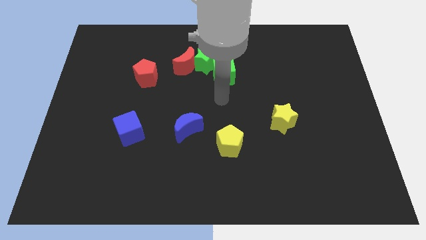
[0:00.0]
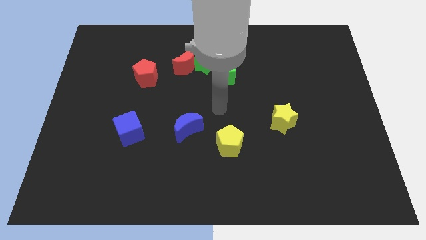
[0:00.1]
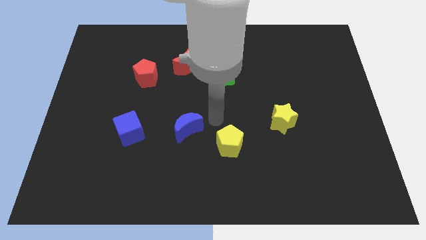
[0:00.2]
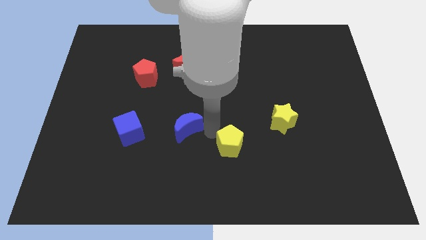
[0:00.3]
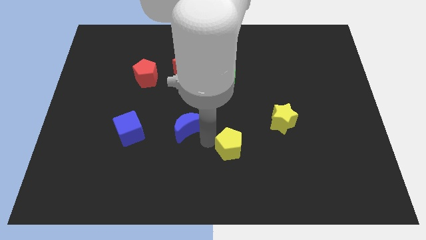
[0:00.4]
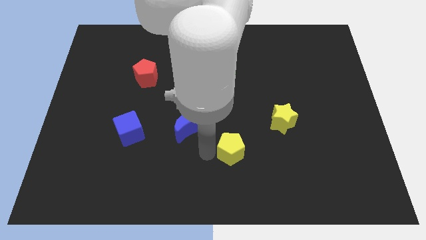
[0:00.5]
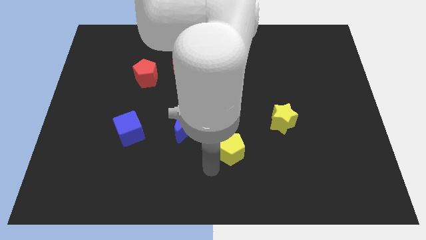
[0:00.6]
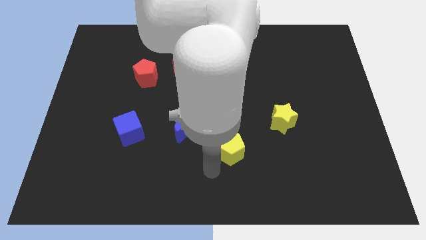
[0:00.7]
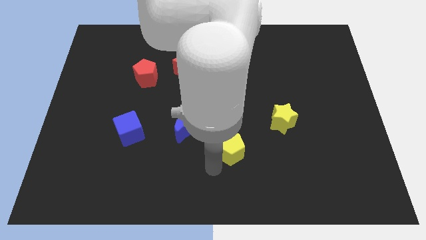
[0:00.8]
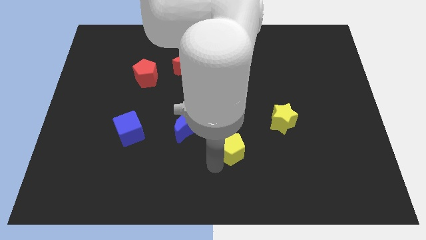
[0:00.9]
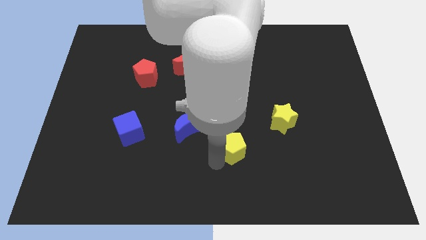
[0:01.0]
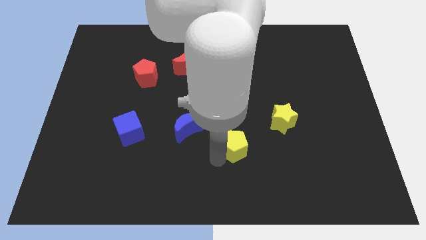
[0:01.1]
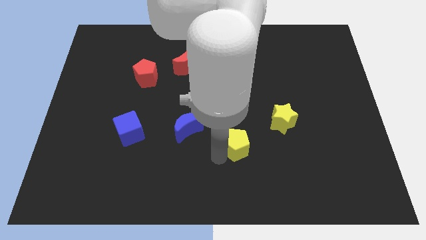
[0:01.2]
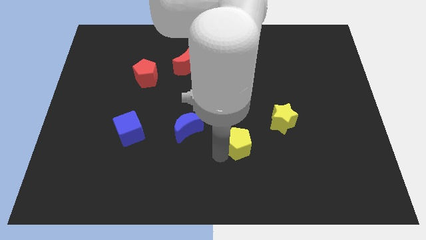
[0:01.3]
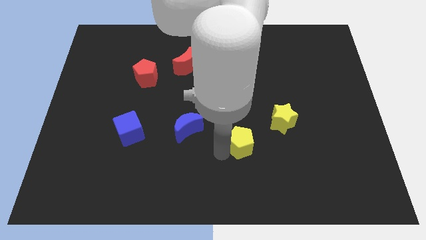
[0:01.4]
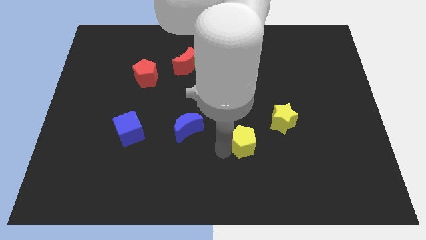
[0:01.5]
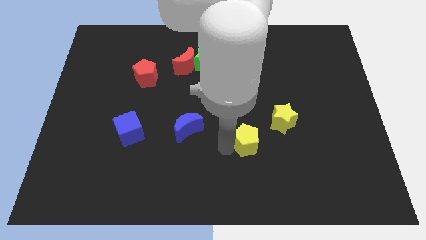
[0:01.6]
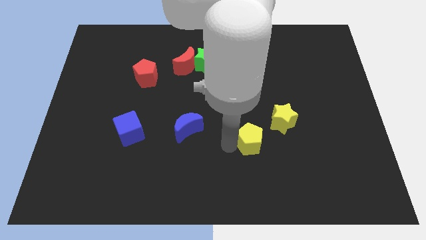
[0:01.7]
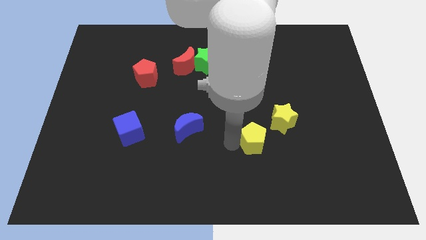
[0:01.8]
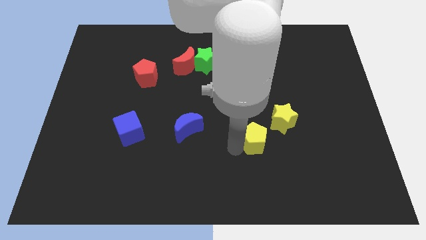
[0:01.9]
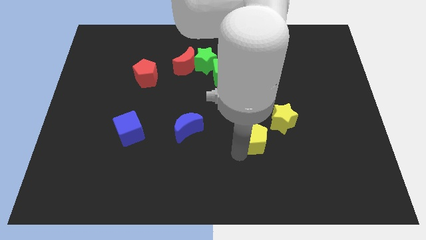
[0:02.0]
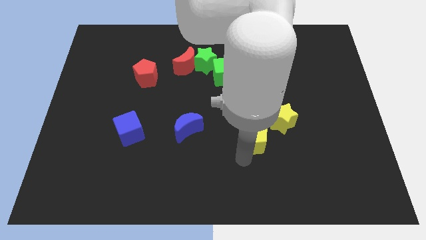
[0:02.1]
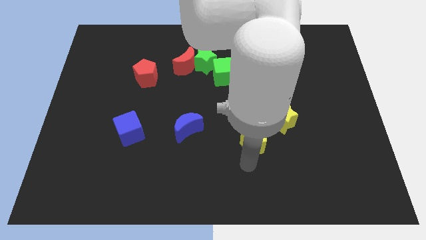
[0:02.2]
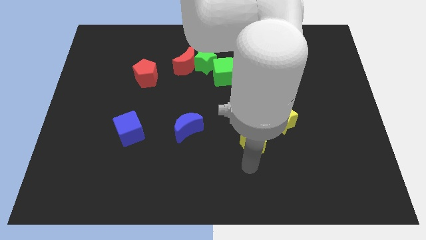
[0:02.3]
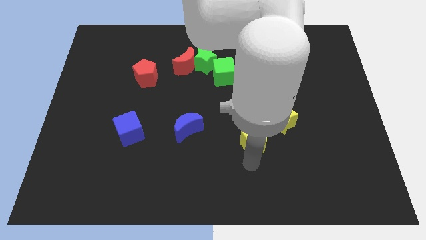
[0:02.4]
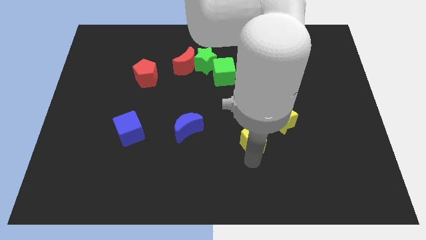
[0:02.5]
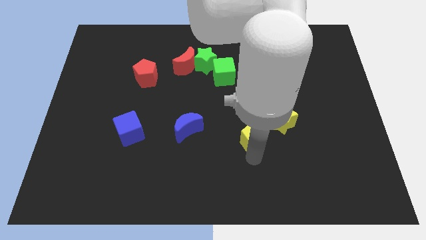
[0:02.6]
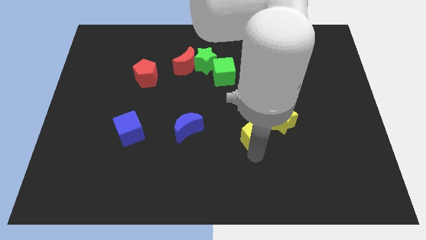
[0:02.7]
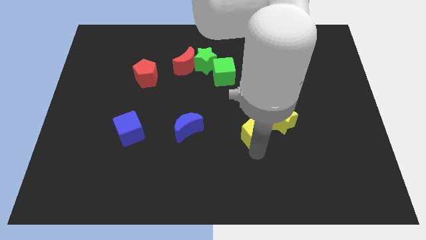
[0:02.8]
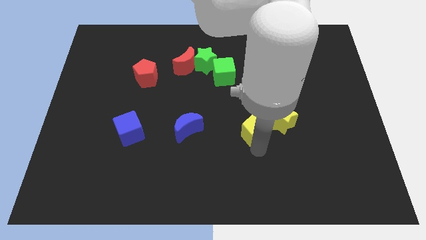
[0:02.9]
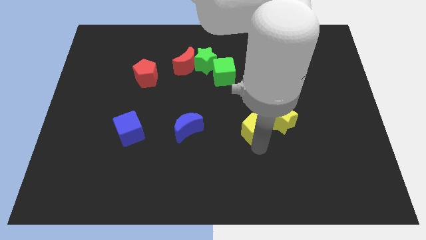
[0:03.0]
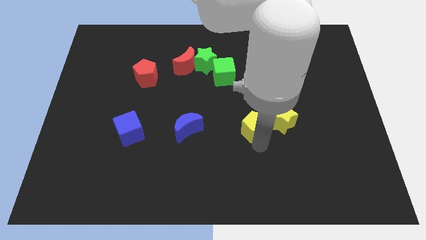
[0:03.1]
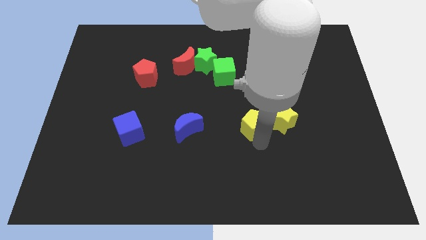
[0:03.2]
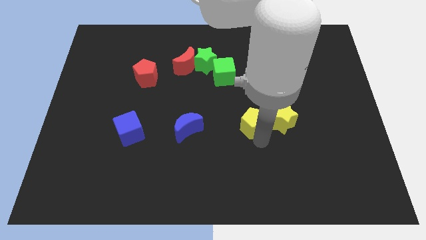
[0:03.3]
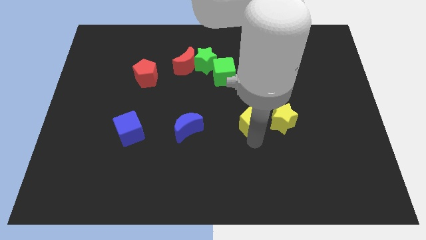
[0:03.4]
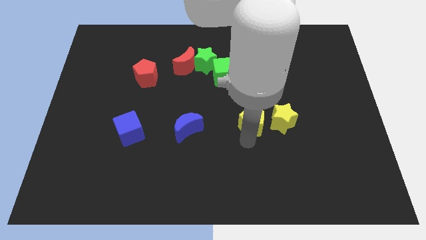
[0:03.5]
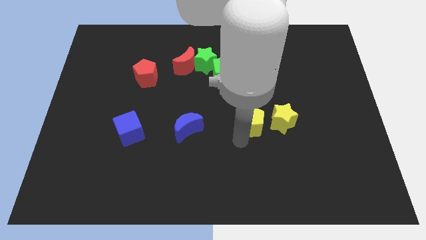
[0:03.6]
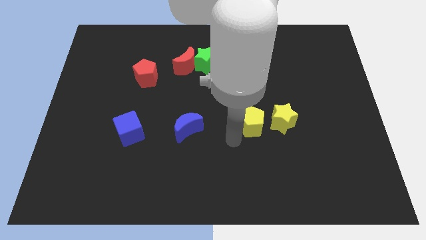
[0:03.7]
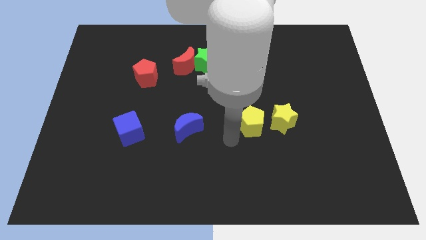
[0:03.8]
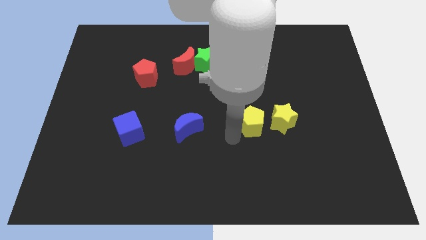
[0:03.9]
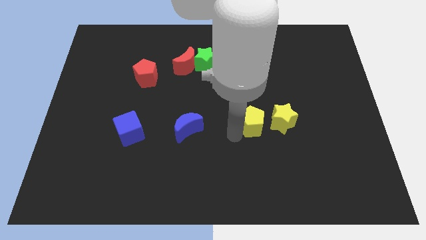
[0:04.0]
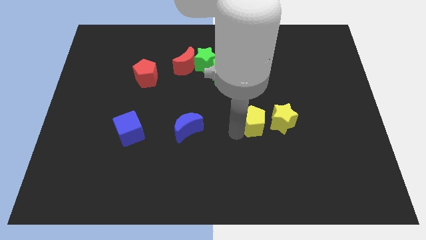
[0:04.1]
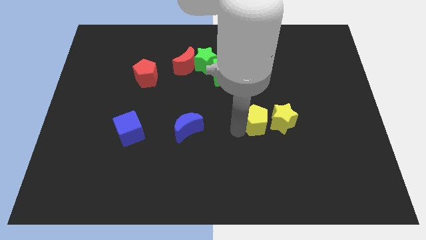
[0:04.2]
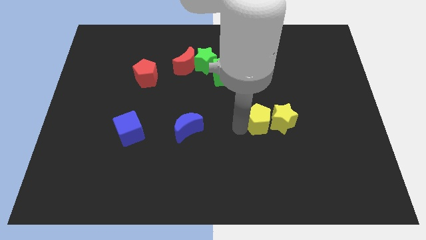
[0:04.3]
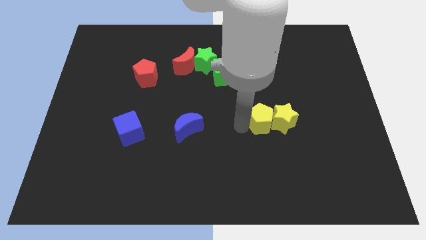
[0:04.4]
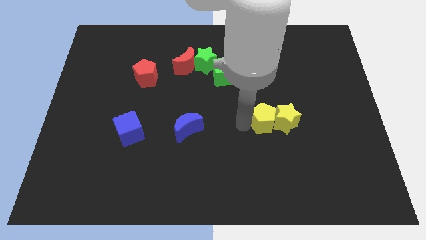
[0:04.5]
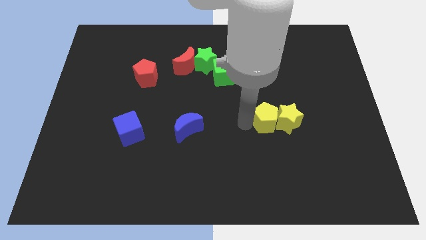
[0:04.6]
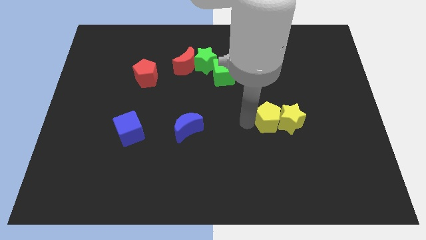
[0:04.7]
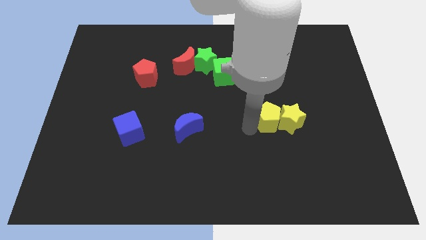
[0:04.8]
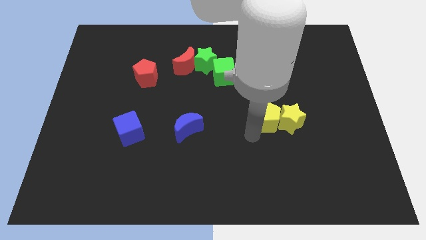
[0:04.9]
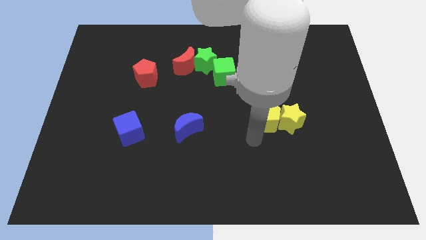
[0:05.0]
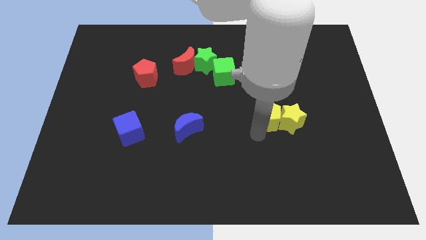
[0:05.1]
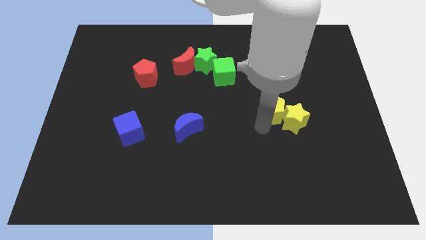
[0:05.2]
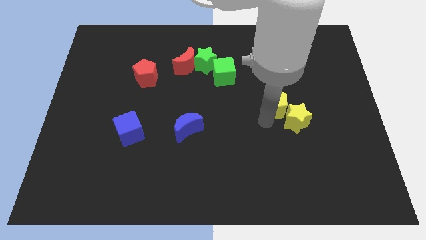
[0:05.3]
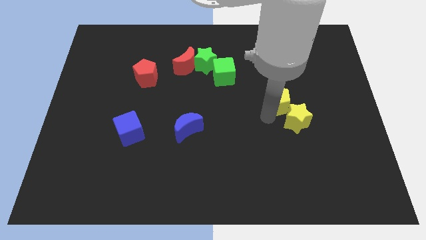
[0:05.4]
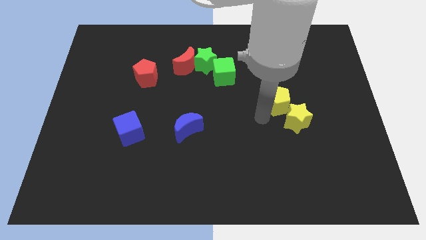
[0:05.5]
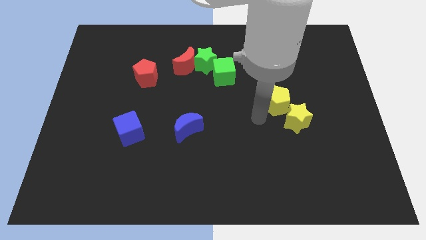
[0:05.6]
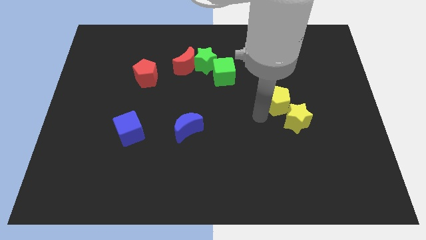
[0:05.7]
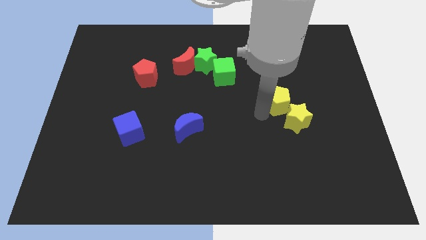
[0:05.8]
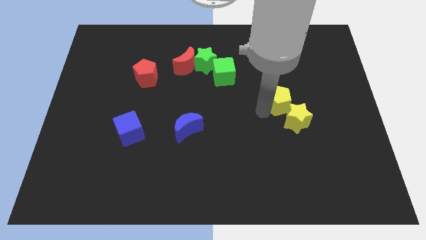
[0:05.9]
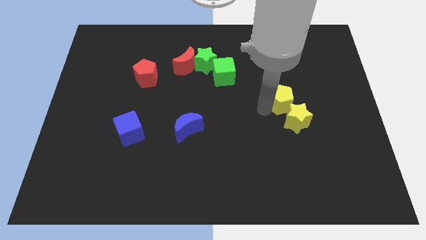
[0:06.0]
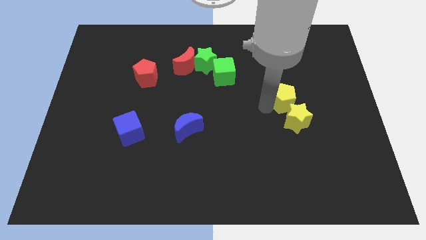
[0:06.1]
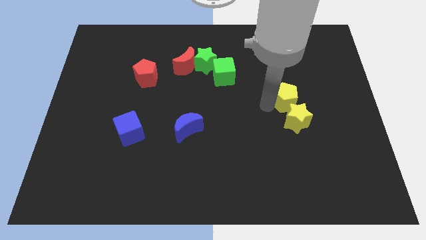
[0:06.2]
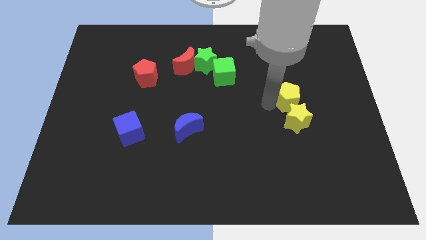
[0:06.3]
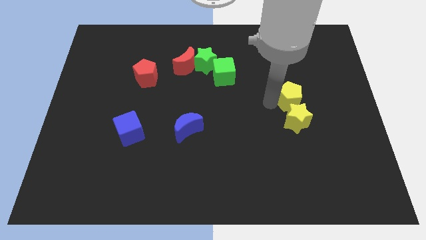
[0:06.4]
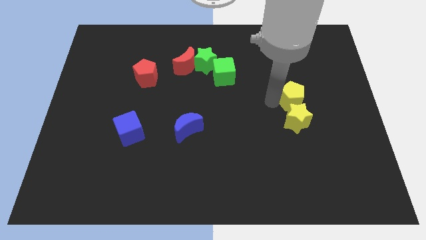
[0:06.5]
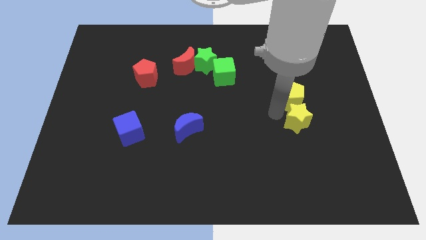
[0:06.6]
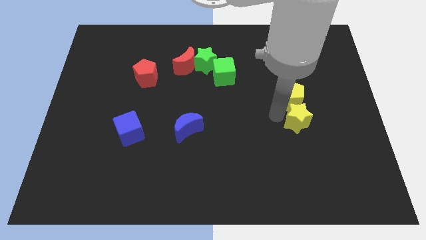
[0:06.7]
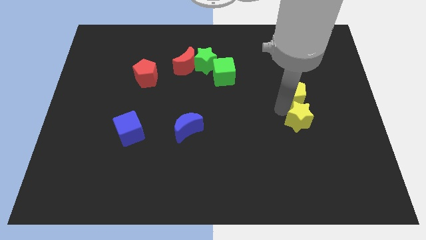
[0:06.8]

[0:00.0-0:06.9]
slide the yellow pentagon diagonally upwards and to the right

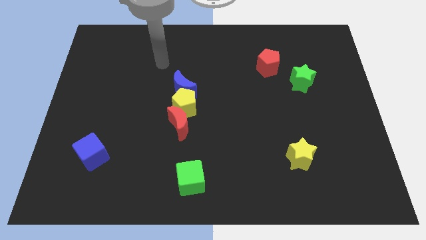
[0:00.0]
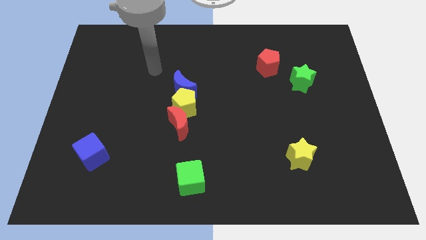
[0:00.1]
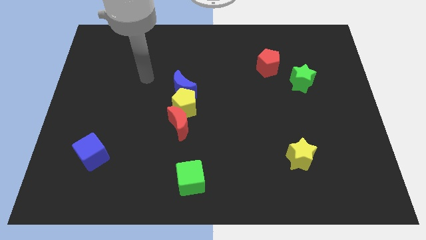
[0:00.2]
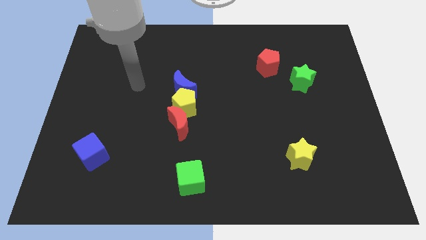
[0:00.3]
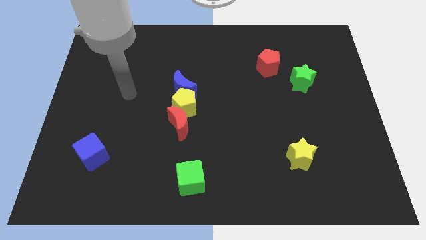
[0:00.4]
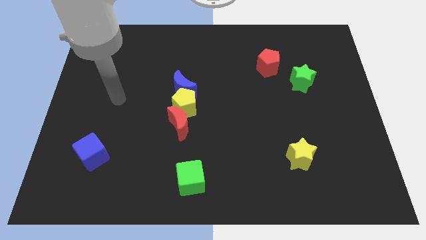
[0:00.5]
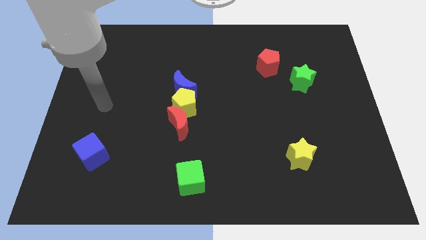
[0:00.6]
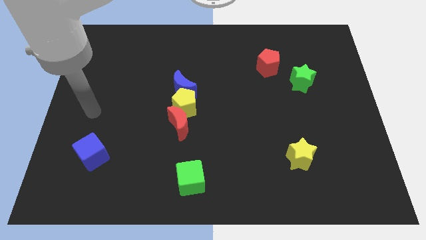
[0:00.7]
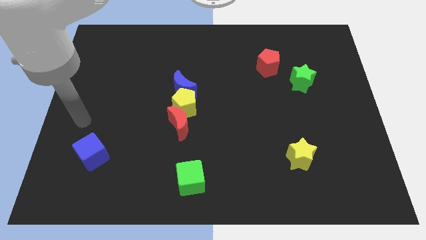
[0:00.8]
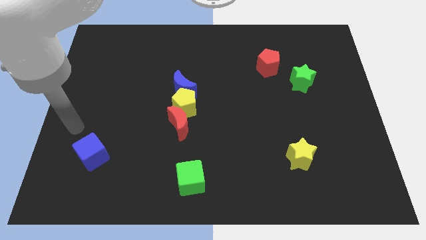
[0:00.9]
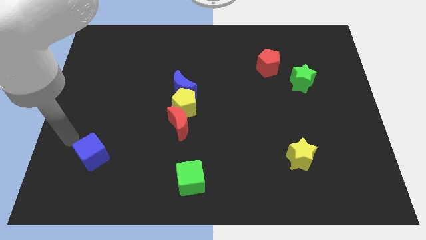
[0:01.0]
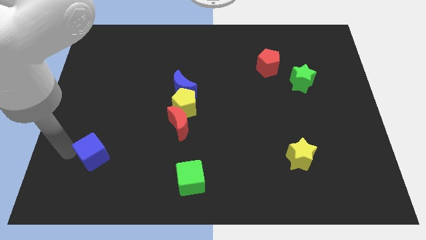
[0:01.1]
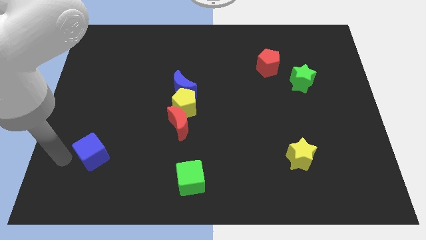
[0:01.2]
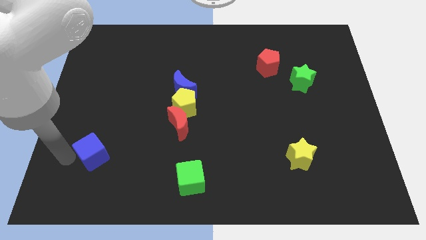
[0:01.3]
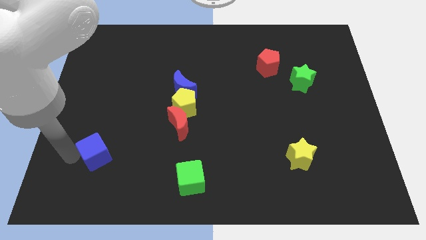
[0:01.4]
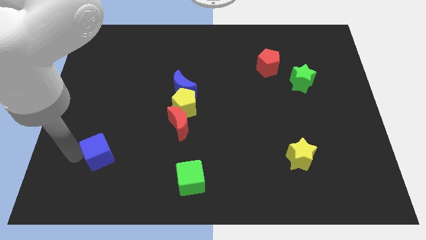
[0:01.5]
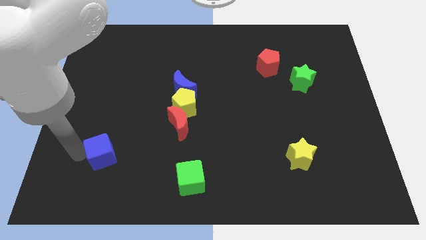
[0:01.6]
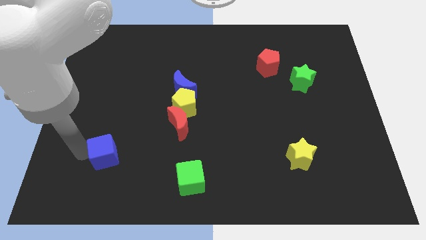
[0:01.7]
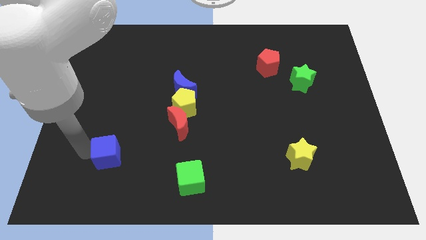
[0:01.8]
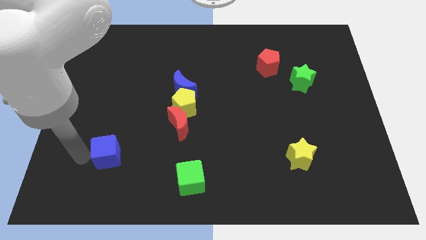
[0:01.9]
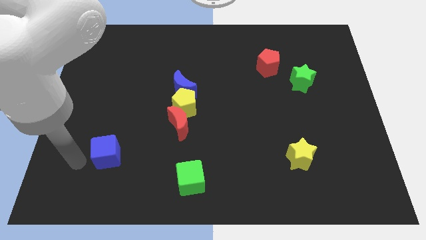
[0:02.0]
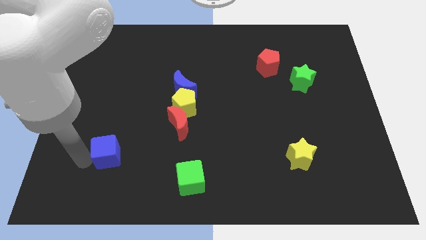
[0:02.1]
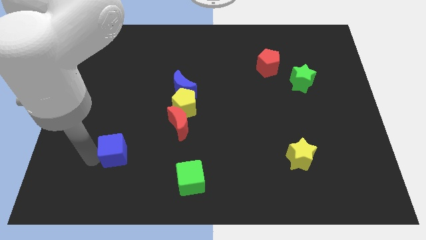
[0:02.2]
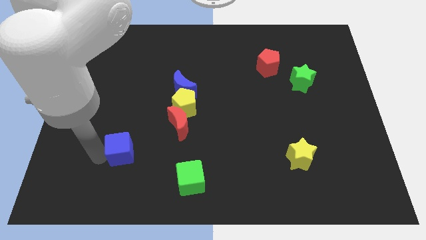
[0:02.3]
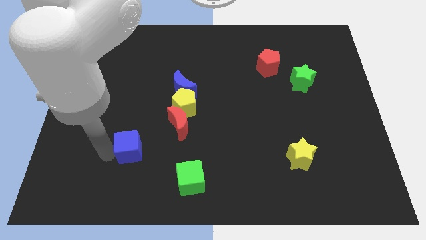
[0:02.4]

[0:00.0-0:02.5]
move the blue cube a bit to the right
